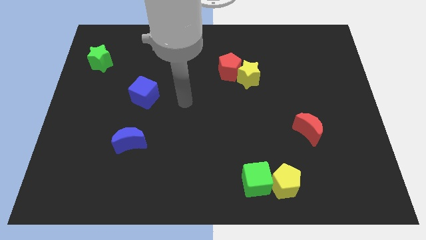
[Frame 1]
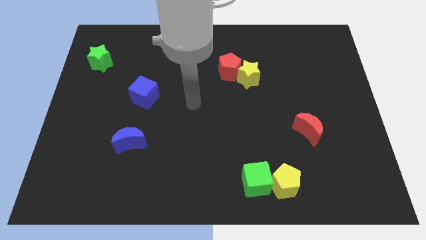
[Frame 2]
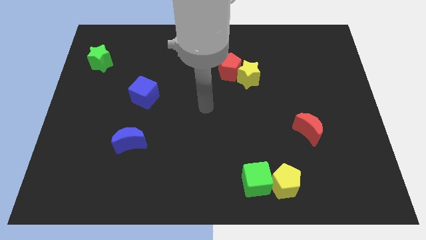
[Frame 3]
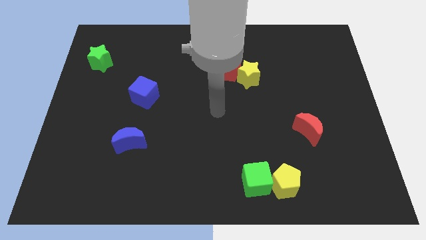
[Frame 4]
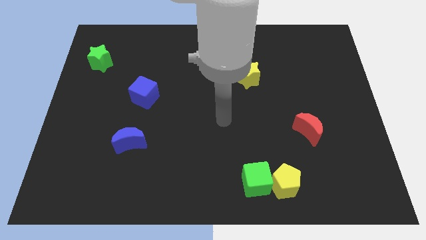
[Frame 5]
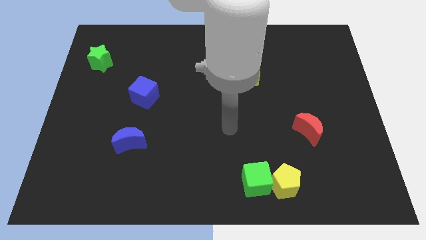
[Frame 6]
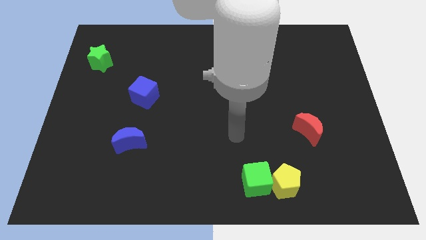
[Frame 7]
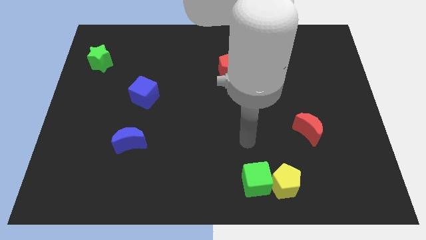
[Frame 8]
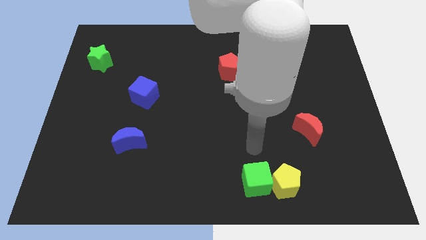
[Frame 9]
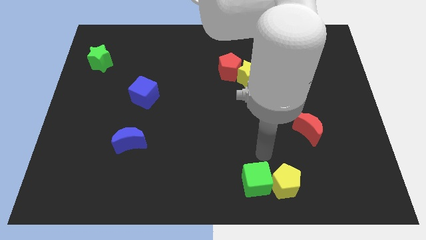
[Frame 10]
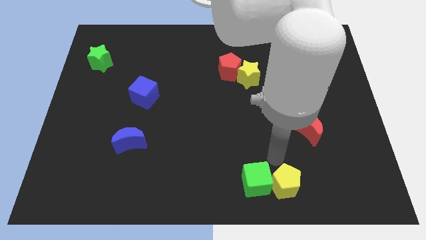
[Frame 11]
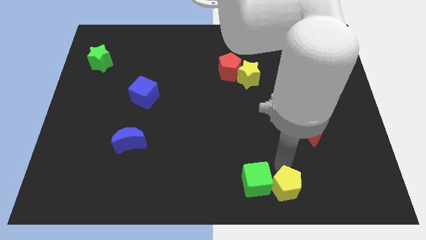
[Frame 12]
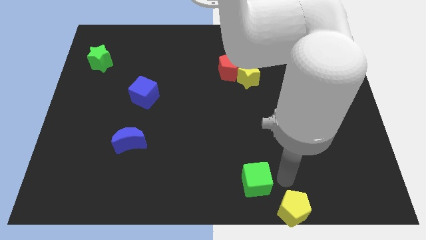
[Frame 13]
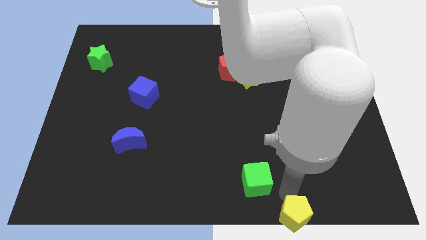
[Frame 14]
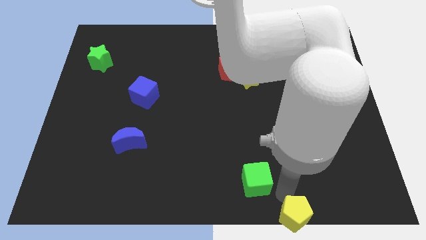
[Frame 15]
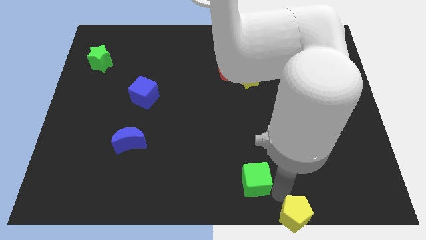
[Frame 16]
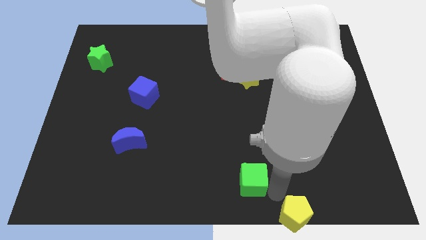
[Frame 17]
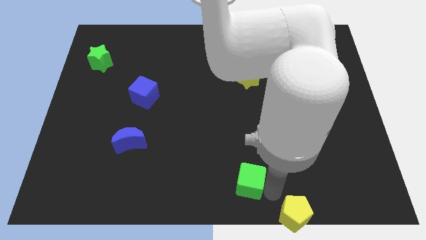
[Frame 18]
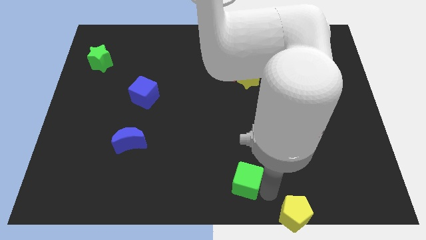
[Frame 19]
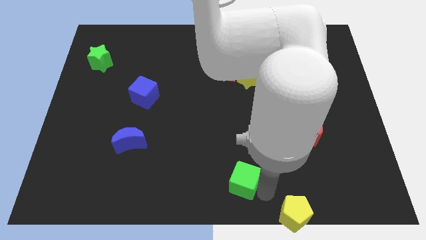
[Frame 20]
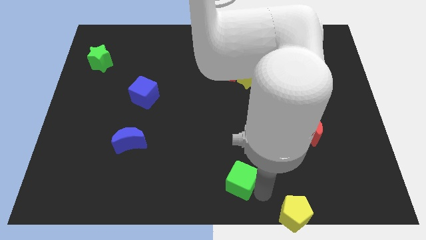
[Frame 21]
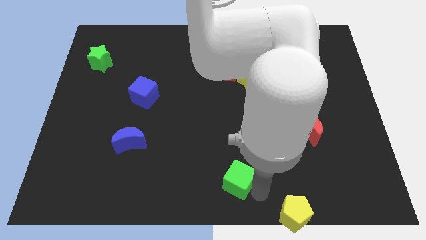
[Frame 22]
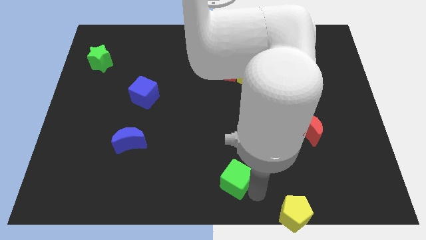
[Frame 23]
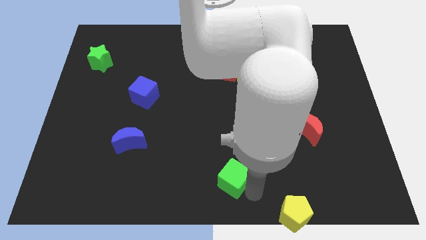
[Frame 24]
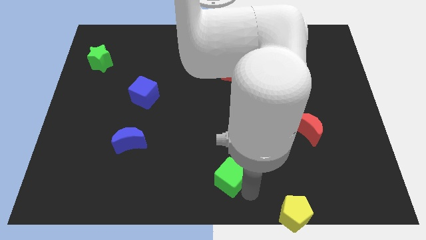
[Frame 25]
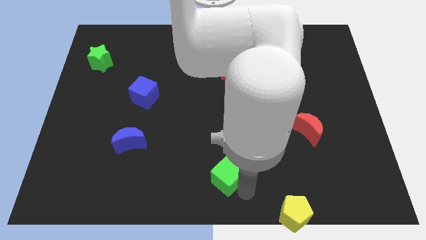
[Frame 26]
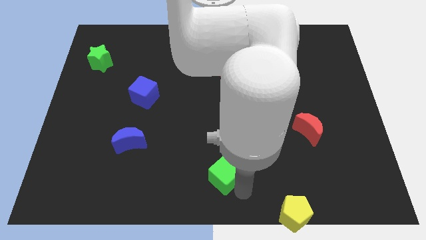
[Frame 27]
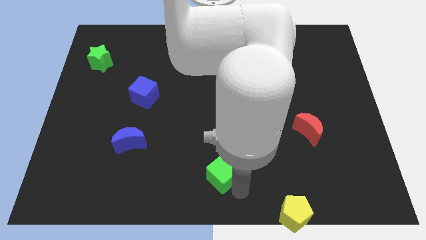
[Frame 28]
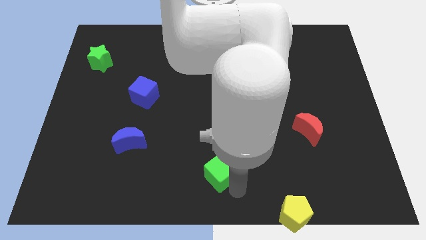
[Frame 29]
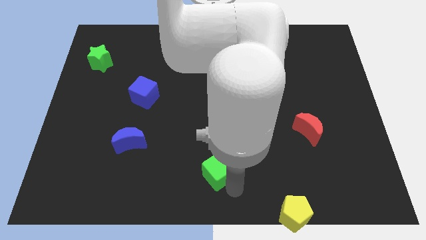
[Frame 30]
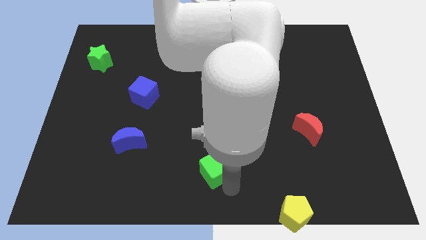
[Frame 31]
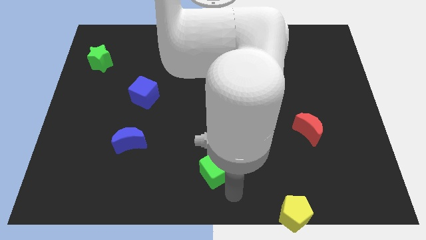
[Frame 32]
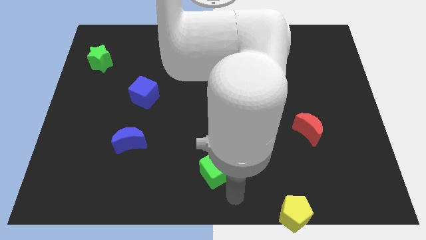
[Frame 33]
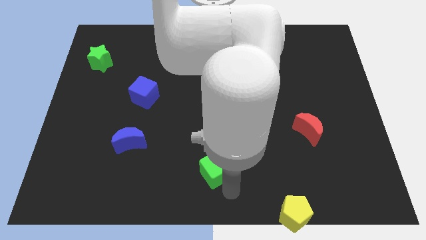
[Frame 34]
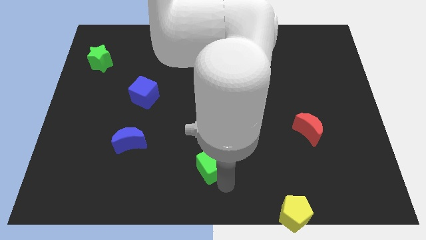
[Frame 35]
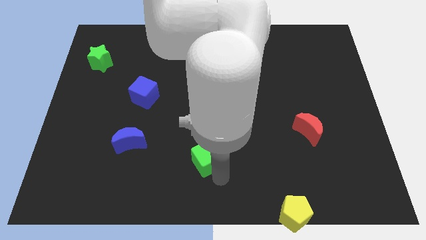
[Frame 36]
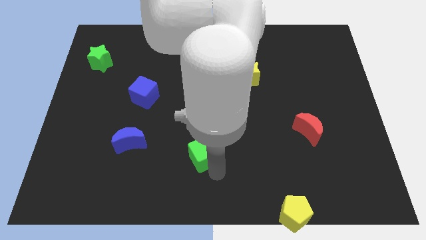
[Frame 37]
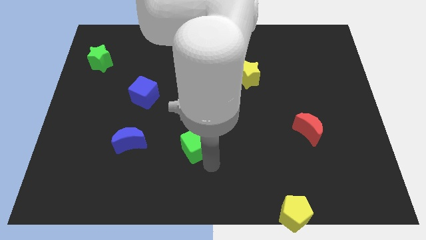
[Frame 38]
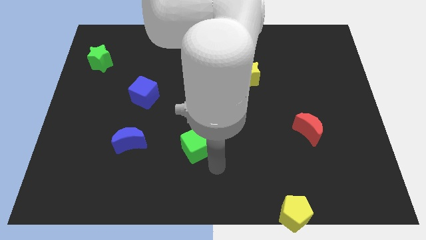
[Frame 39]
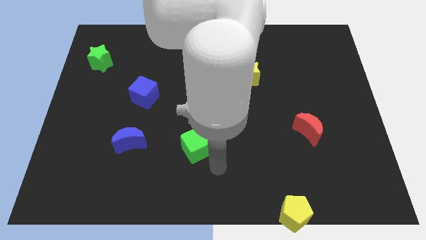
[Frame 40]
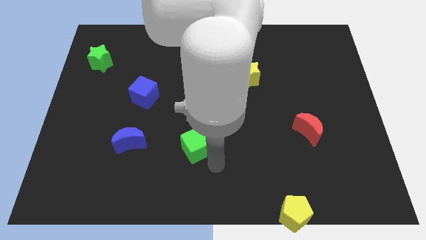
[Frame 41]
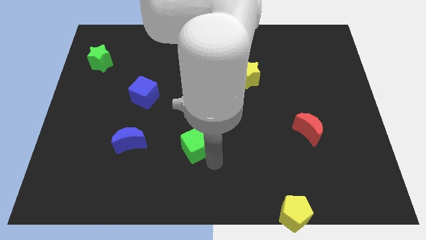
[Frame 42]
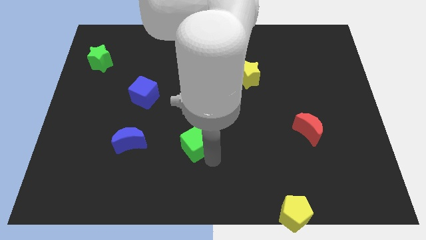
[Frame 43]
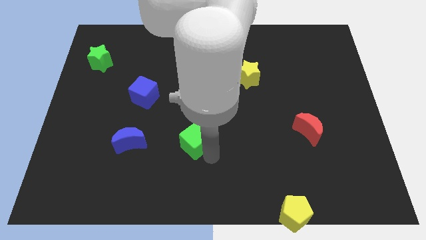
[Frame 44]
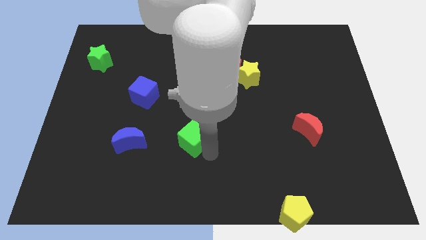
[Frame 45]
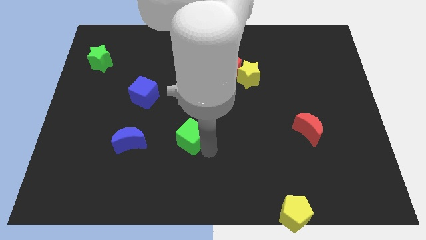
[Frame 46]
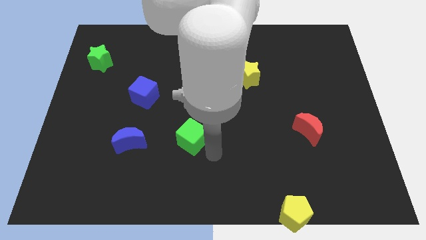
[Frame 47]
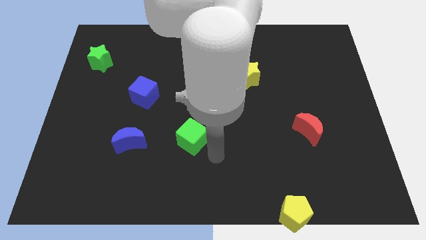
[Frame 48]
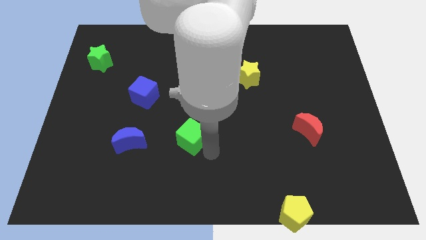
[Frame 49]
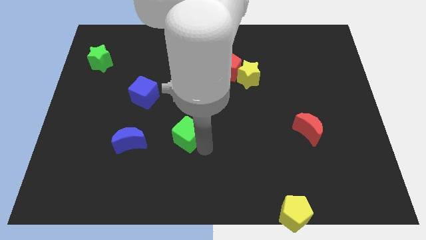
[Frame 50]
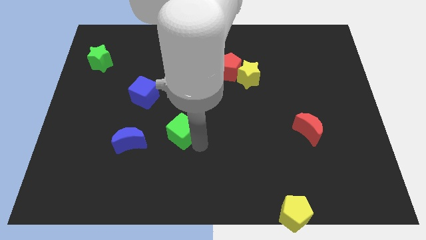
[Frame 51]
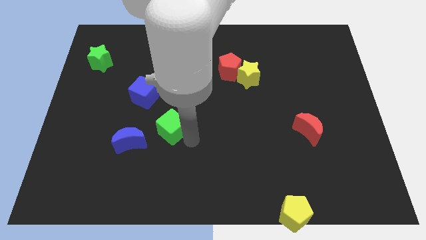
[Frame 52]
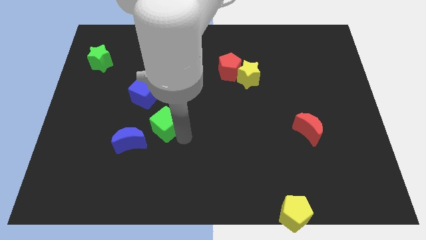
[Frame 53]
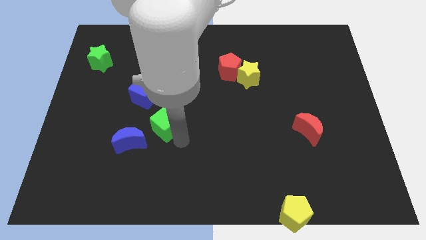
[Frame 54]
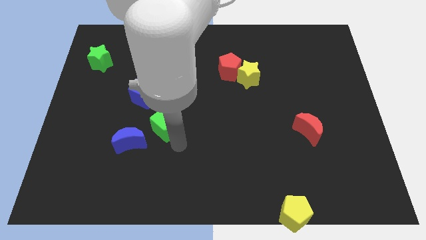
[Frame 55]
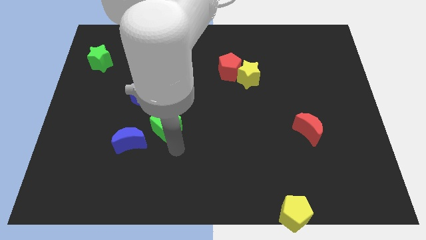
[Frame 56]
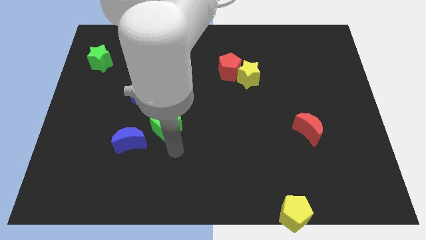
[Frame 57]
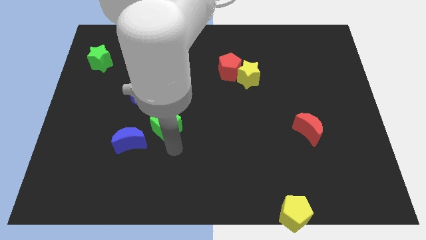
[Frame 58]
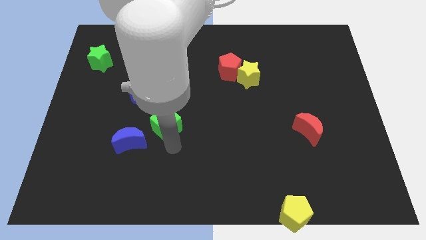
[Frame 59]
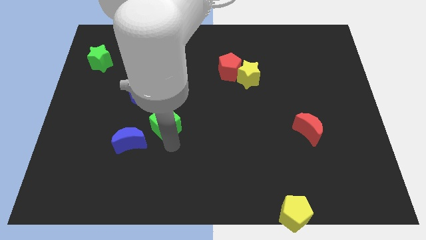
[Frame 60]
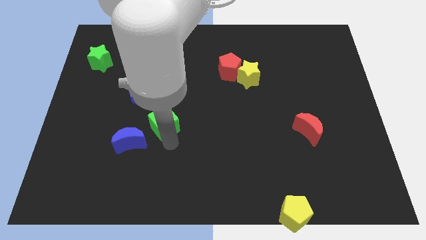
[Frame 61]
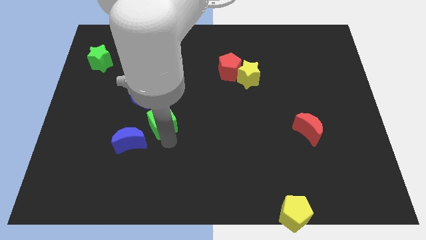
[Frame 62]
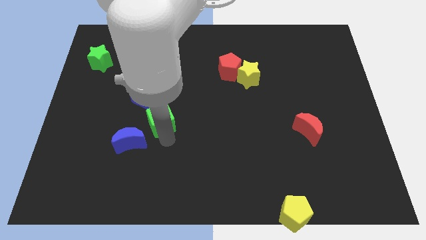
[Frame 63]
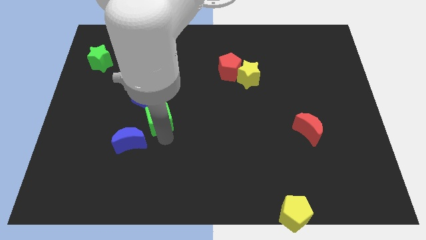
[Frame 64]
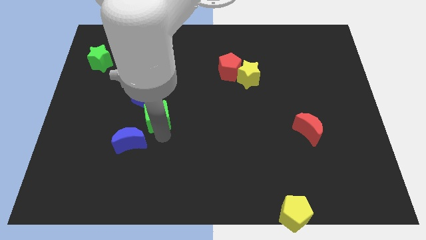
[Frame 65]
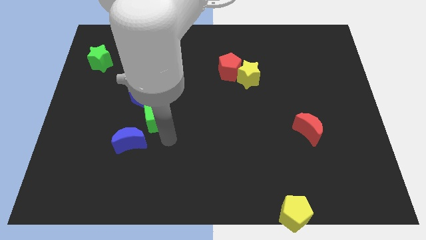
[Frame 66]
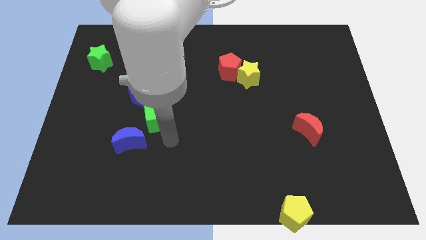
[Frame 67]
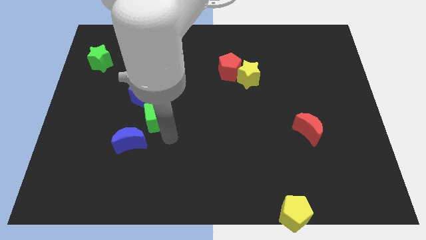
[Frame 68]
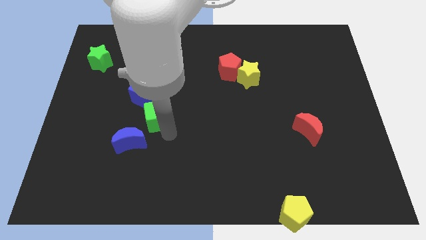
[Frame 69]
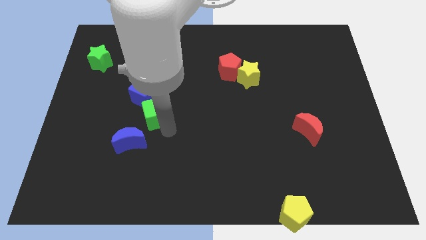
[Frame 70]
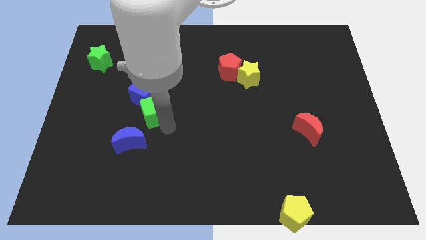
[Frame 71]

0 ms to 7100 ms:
slide the green cube close to the blue cube

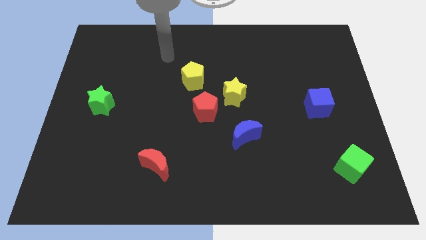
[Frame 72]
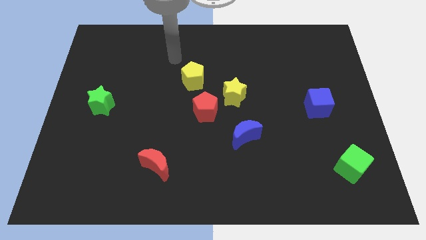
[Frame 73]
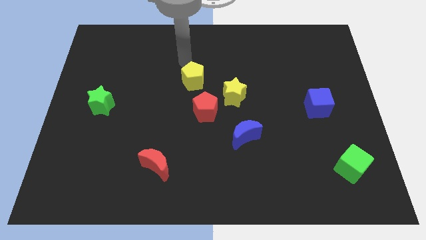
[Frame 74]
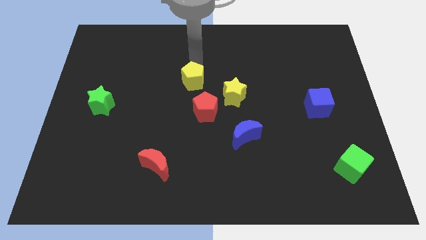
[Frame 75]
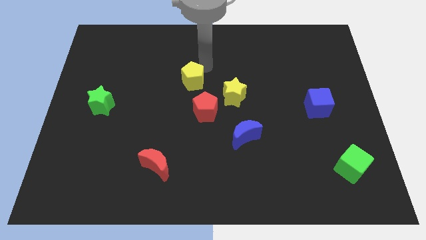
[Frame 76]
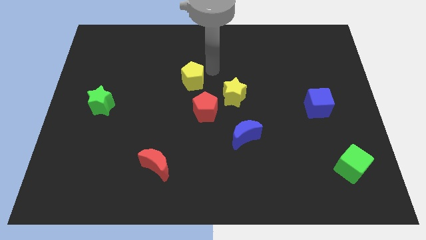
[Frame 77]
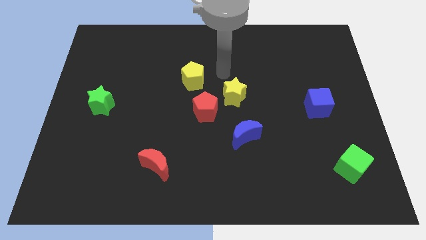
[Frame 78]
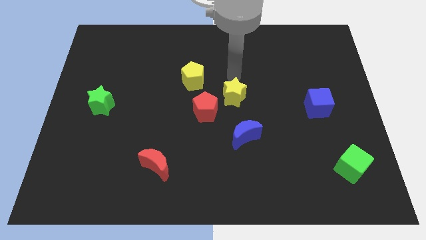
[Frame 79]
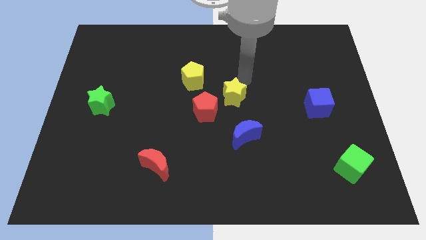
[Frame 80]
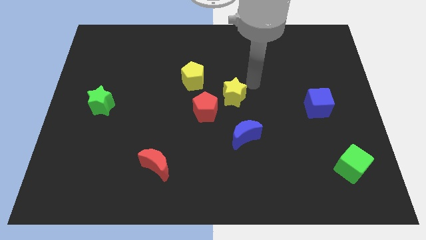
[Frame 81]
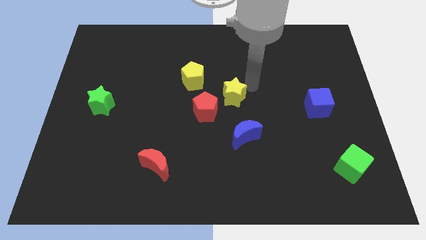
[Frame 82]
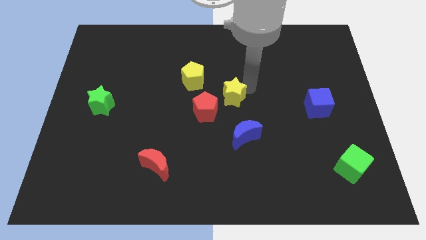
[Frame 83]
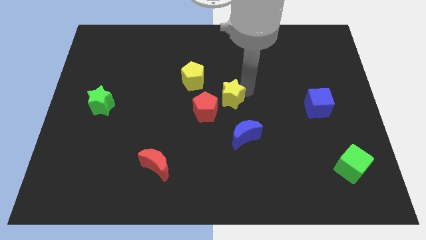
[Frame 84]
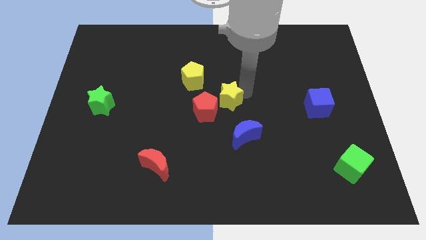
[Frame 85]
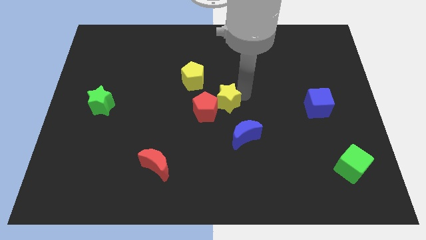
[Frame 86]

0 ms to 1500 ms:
slide the yellow star close to the red pentagon
